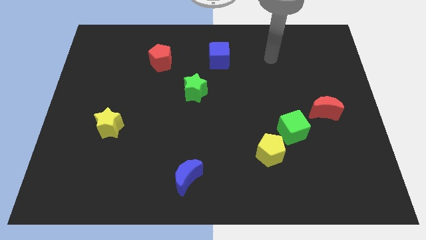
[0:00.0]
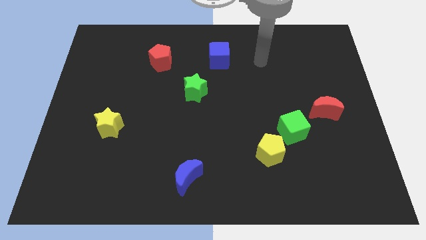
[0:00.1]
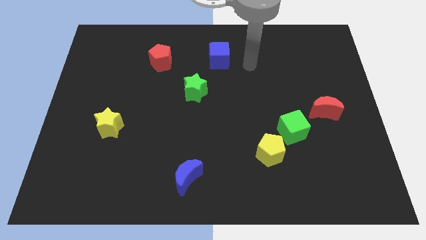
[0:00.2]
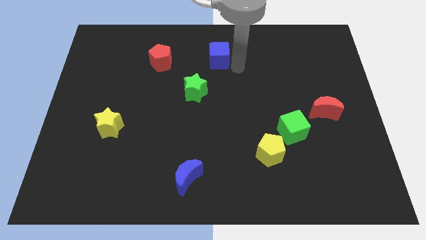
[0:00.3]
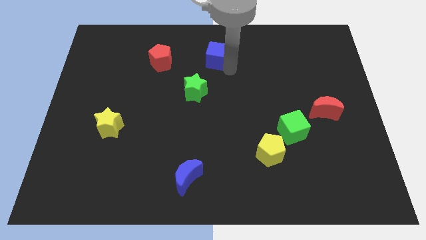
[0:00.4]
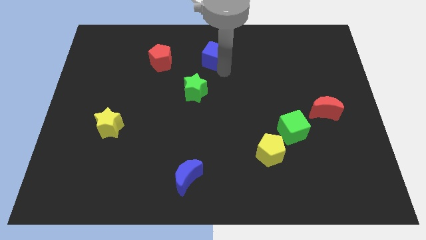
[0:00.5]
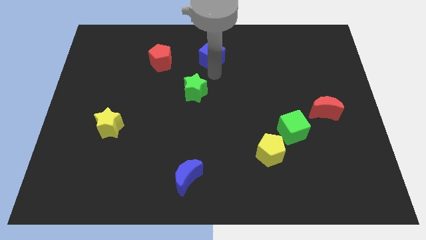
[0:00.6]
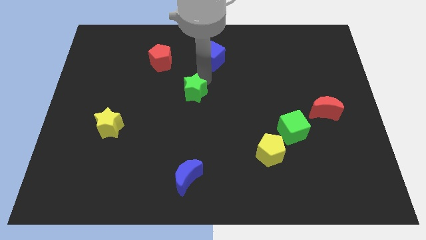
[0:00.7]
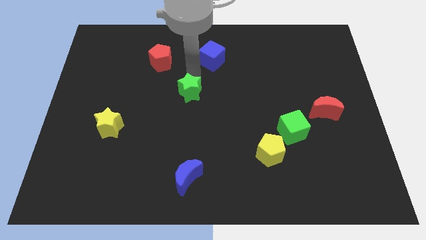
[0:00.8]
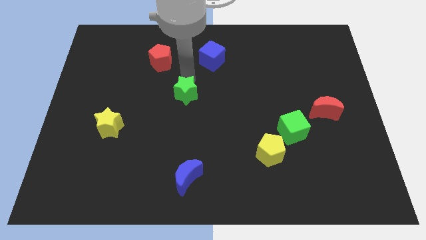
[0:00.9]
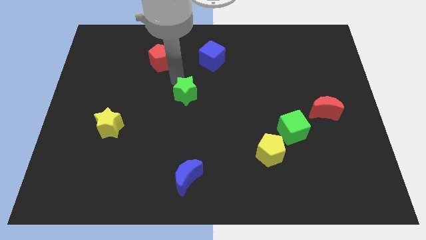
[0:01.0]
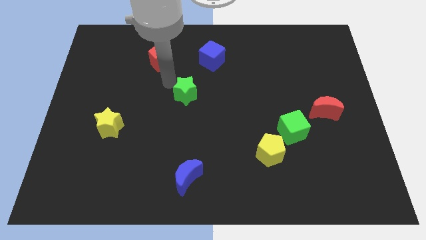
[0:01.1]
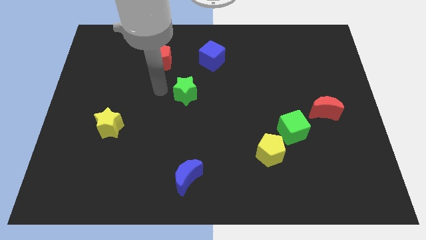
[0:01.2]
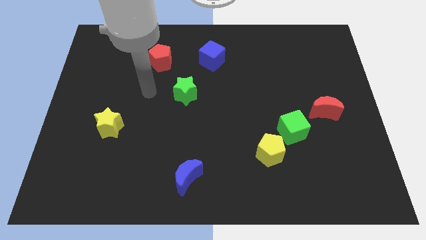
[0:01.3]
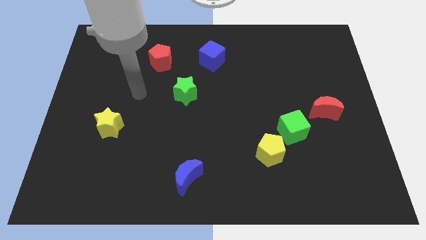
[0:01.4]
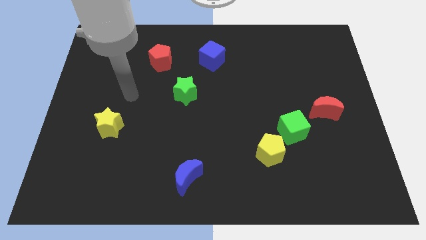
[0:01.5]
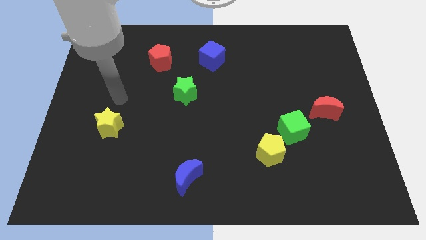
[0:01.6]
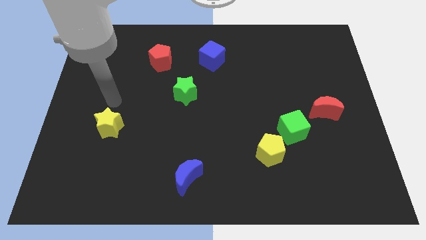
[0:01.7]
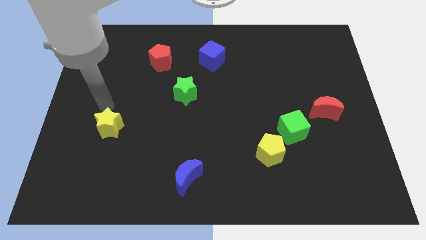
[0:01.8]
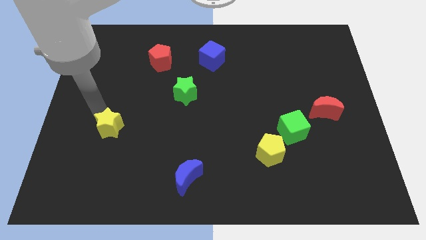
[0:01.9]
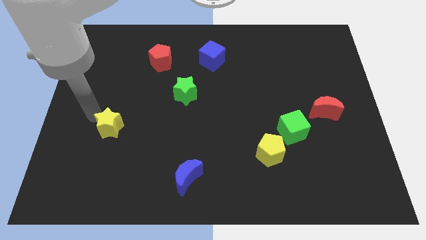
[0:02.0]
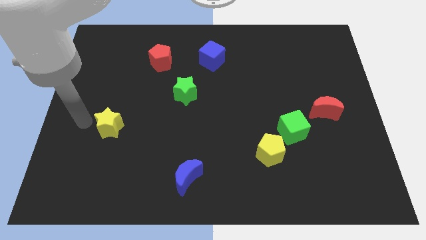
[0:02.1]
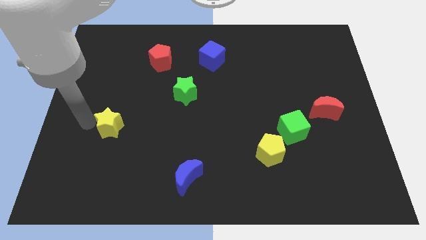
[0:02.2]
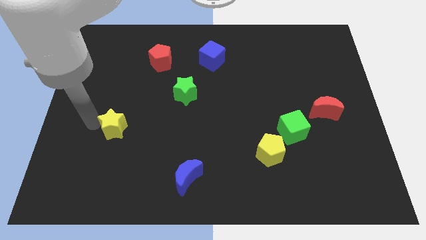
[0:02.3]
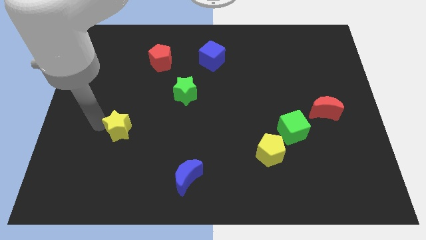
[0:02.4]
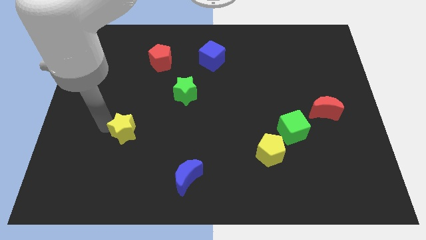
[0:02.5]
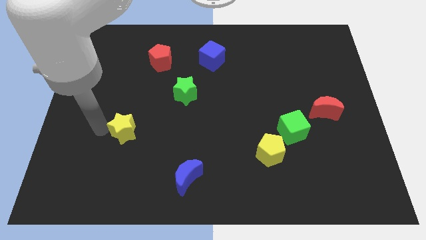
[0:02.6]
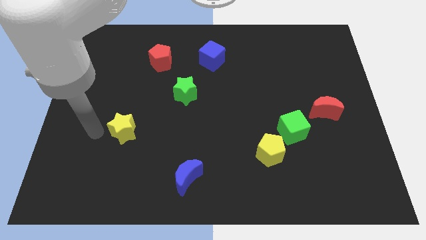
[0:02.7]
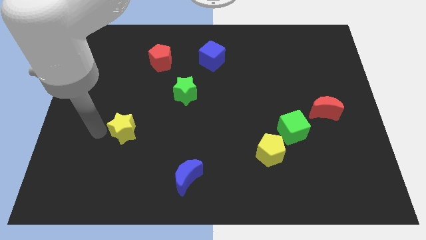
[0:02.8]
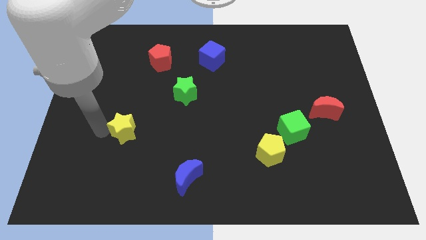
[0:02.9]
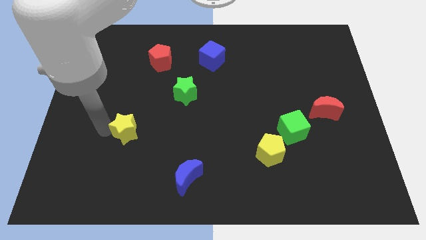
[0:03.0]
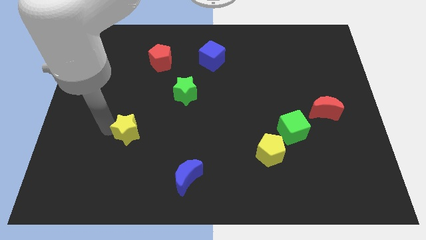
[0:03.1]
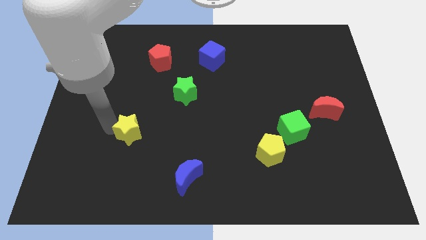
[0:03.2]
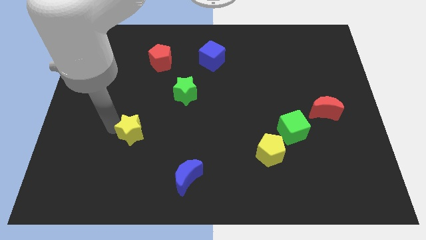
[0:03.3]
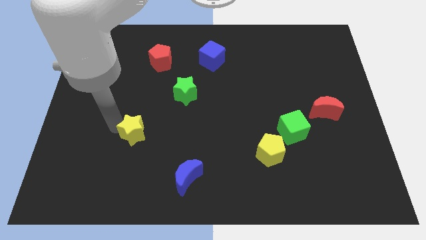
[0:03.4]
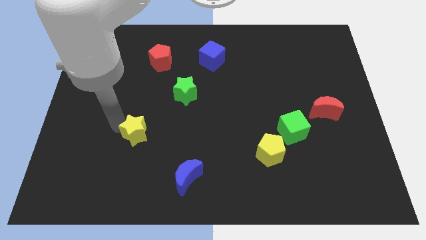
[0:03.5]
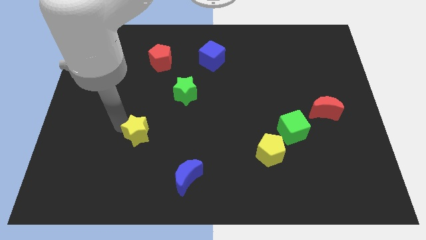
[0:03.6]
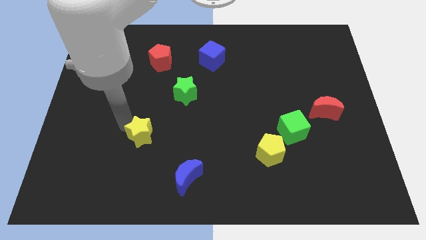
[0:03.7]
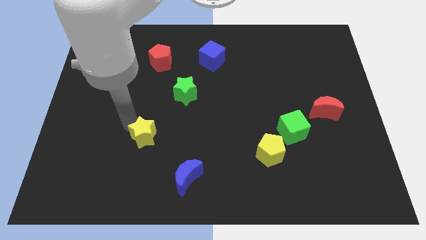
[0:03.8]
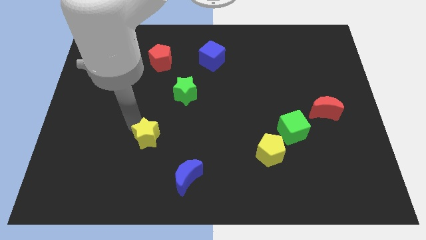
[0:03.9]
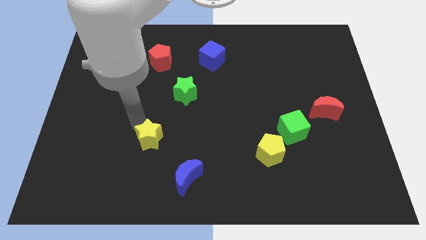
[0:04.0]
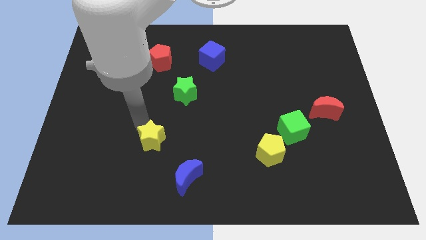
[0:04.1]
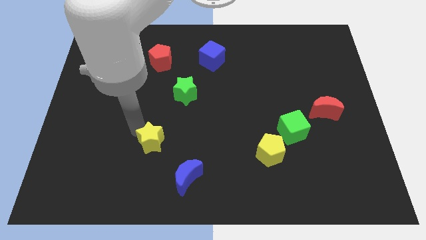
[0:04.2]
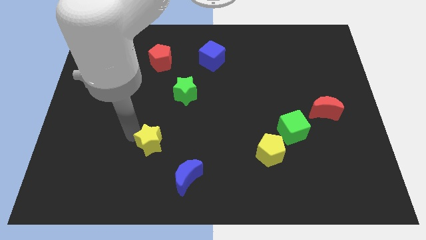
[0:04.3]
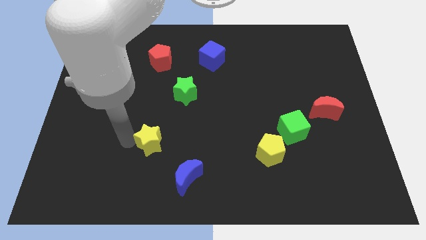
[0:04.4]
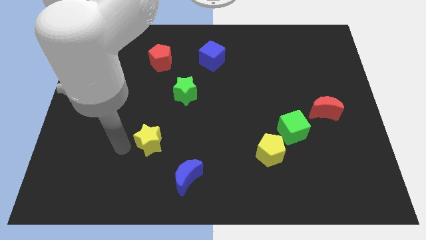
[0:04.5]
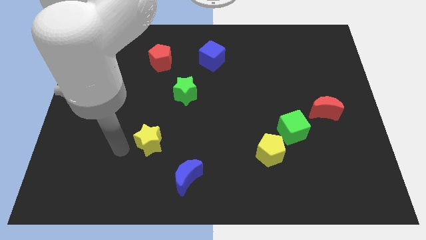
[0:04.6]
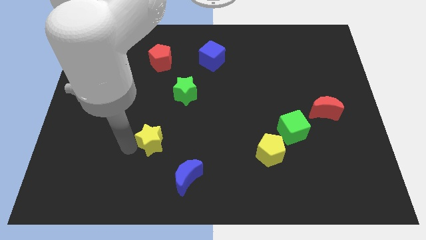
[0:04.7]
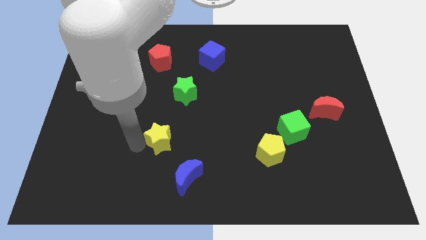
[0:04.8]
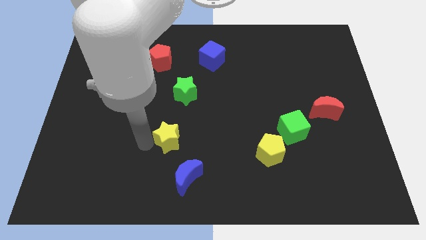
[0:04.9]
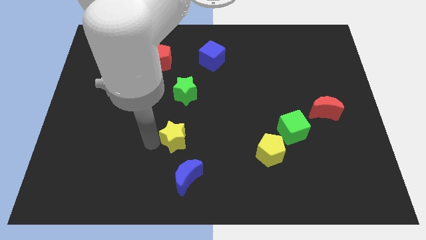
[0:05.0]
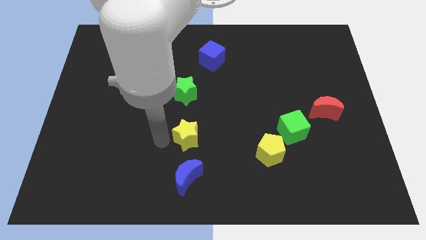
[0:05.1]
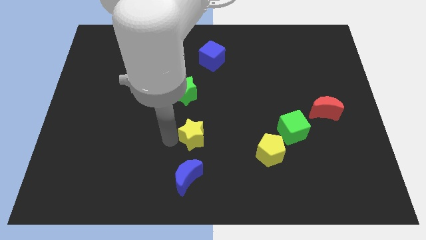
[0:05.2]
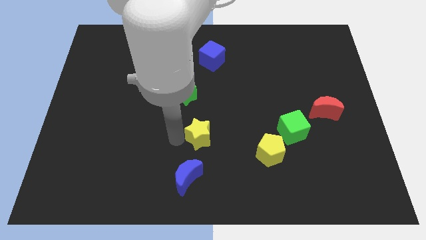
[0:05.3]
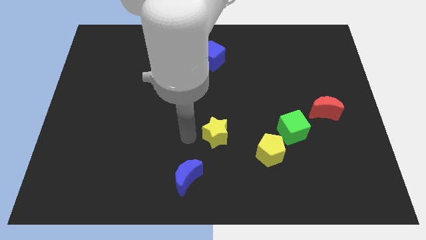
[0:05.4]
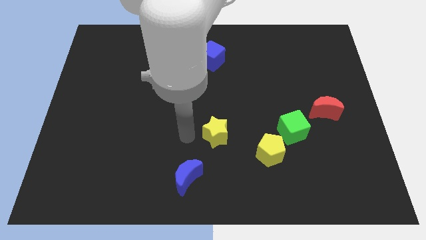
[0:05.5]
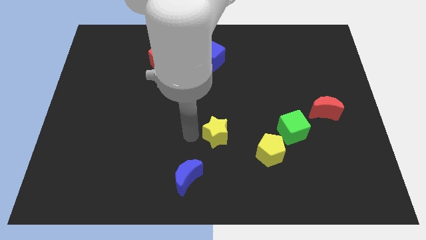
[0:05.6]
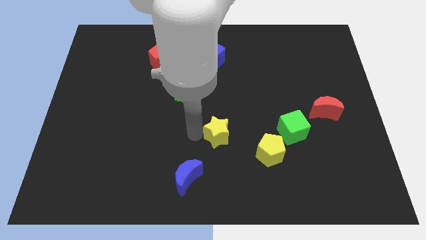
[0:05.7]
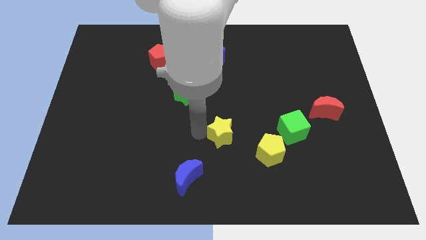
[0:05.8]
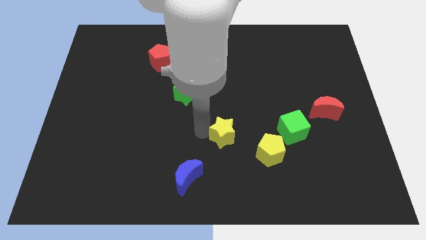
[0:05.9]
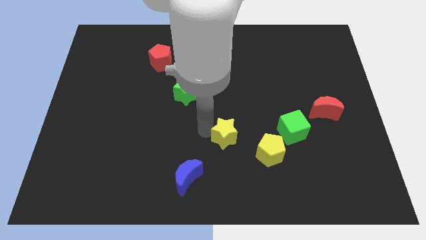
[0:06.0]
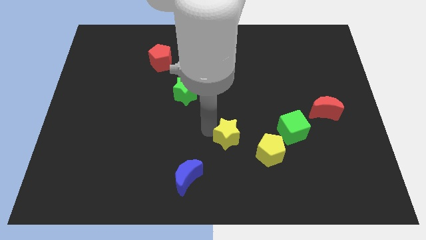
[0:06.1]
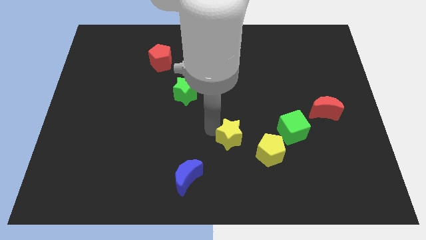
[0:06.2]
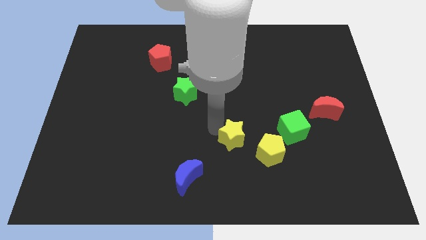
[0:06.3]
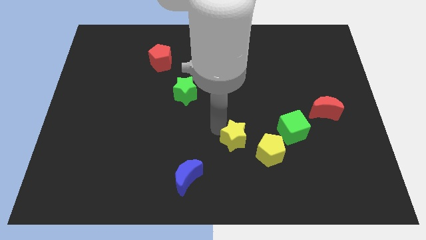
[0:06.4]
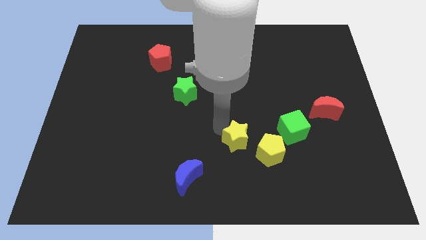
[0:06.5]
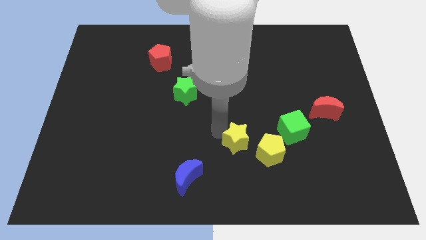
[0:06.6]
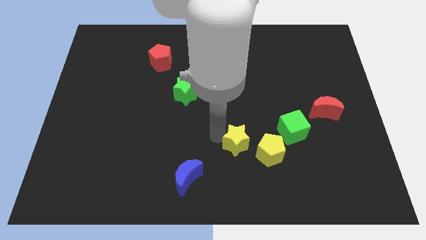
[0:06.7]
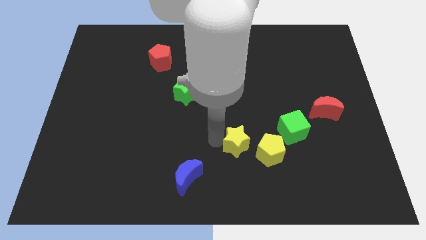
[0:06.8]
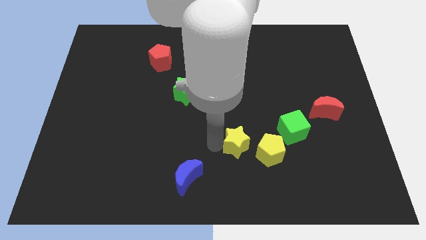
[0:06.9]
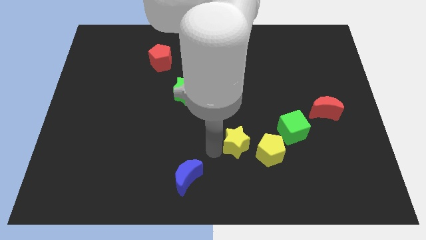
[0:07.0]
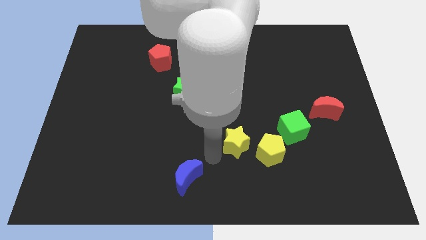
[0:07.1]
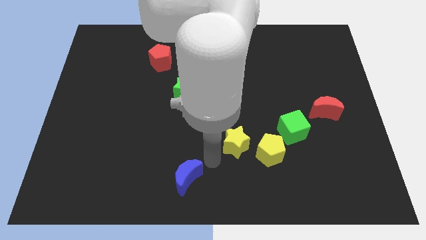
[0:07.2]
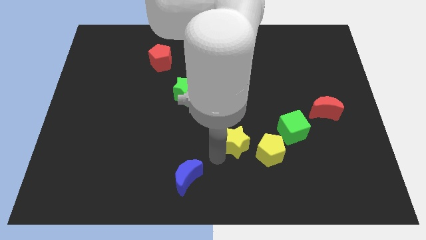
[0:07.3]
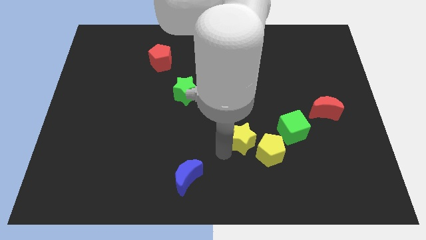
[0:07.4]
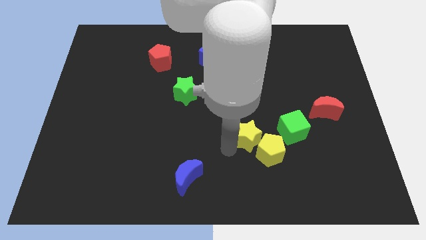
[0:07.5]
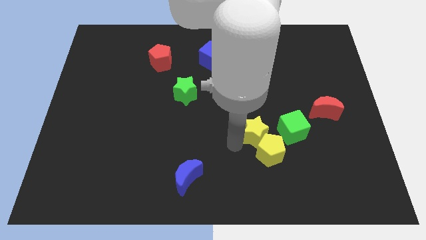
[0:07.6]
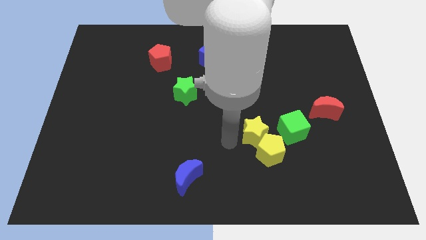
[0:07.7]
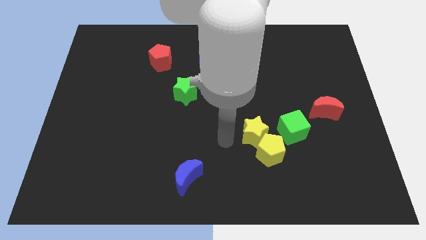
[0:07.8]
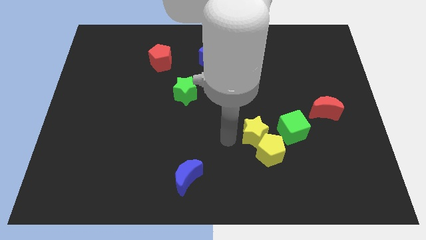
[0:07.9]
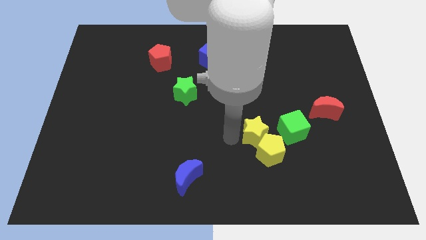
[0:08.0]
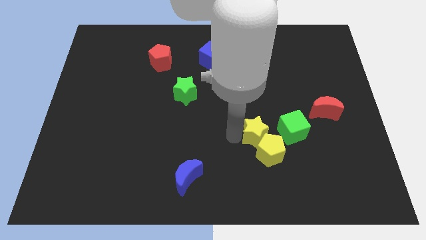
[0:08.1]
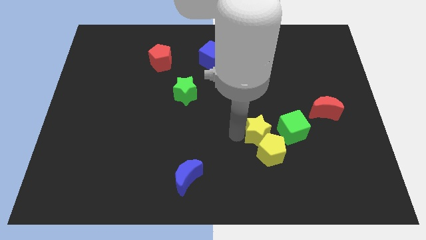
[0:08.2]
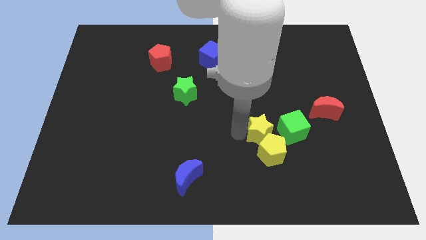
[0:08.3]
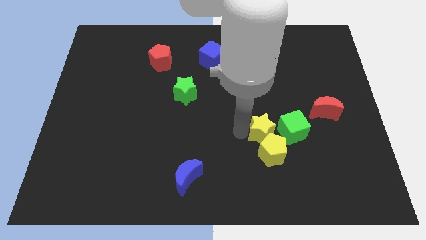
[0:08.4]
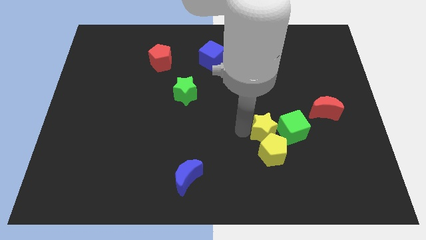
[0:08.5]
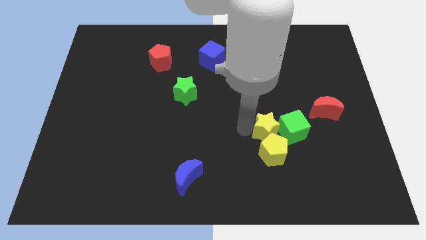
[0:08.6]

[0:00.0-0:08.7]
move the yellow star towards the green cube
